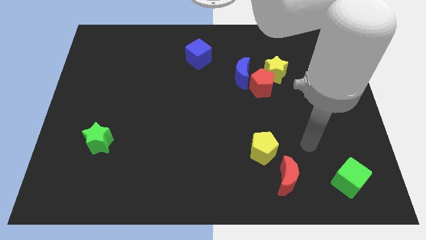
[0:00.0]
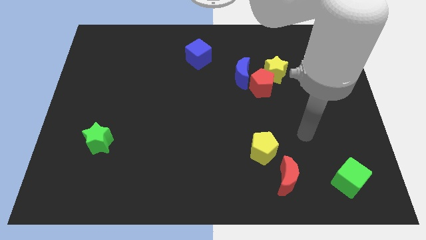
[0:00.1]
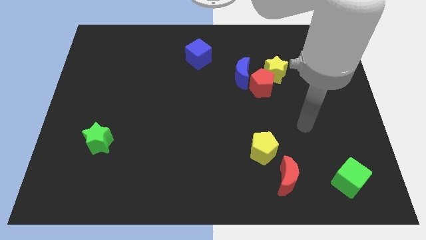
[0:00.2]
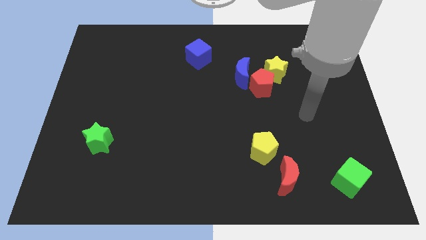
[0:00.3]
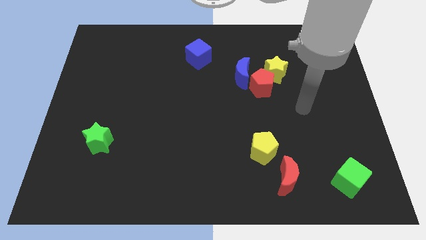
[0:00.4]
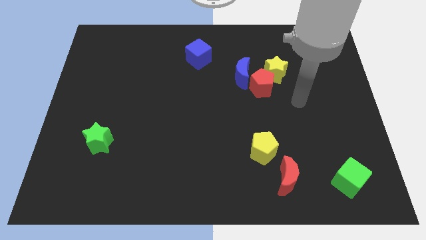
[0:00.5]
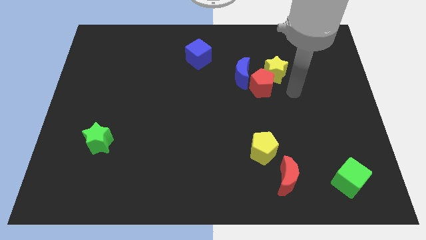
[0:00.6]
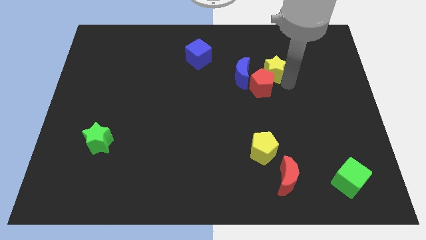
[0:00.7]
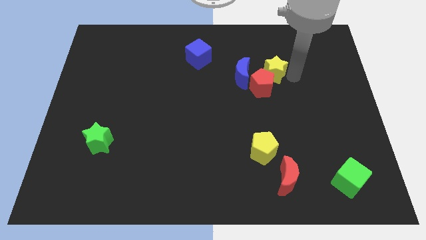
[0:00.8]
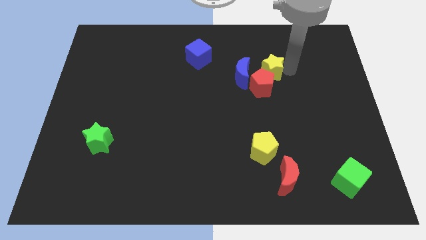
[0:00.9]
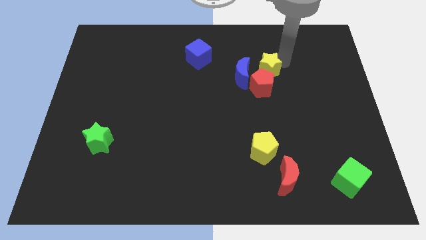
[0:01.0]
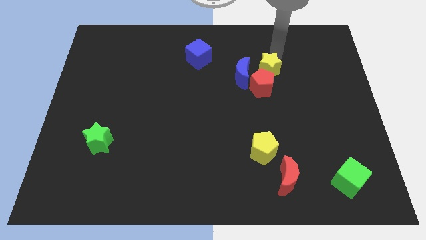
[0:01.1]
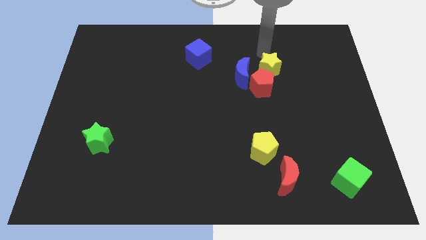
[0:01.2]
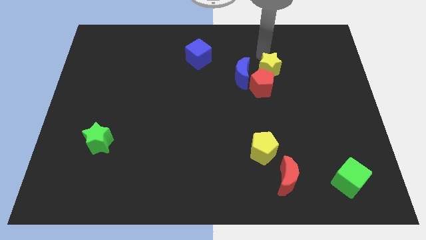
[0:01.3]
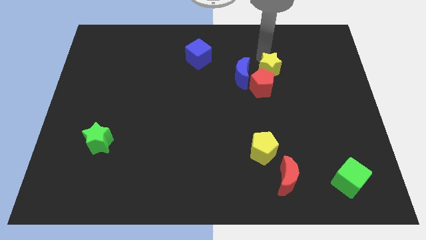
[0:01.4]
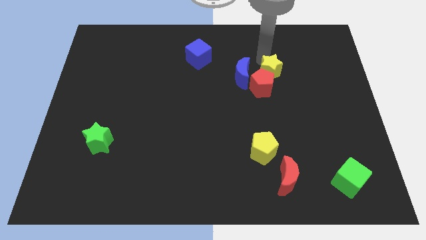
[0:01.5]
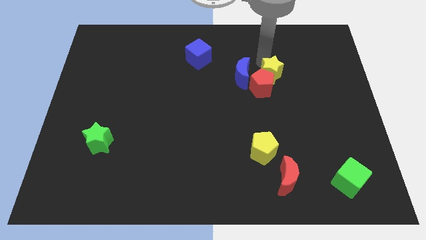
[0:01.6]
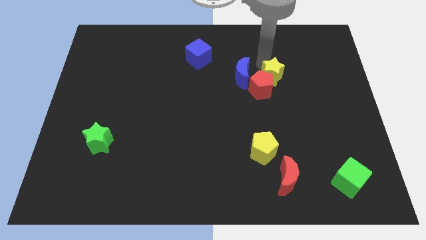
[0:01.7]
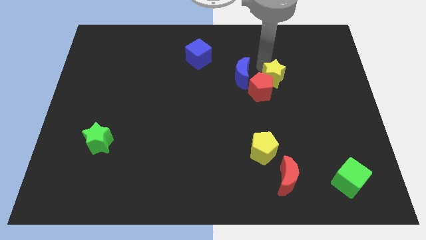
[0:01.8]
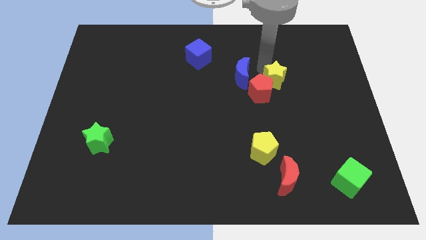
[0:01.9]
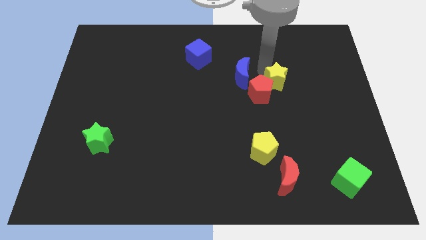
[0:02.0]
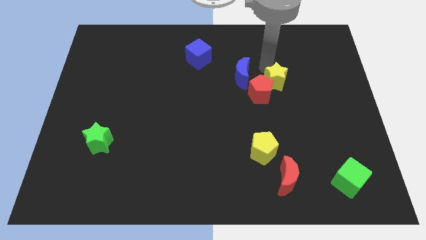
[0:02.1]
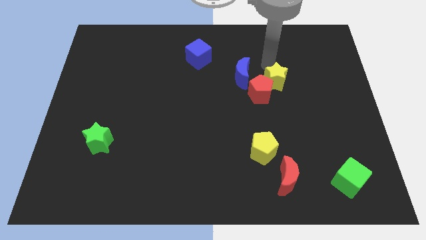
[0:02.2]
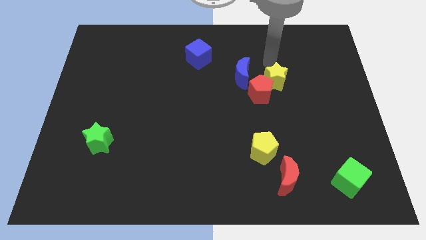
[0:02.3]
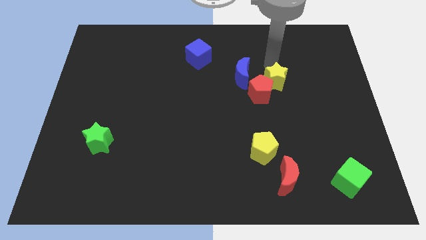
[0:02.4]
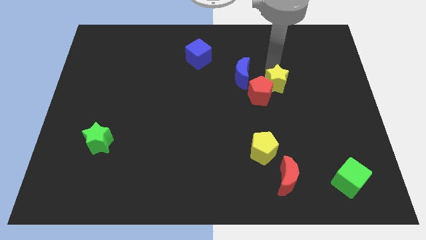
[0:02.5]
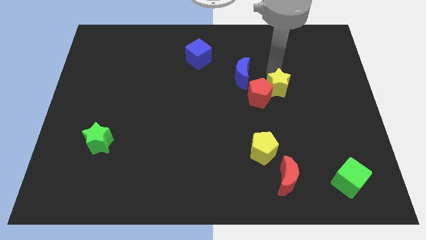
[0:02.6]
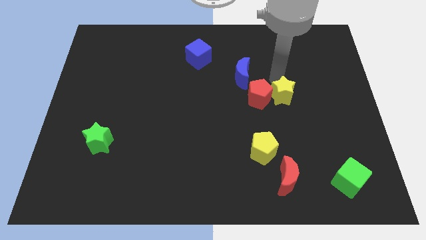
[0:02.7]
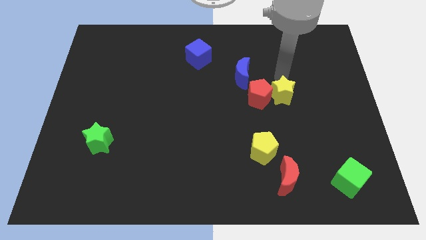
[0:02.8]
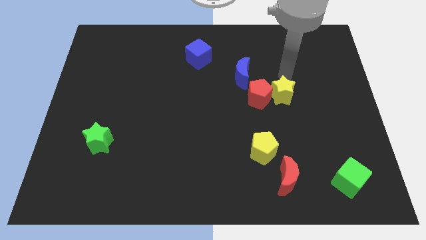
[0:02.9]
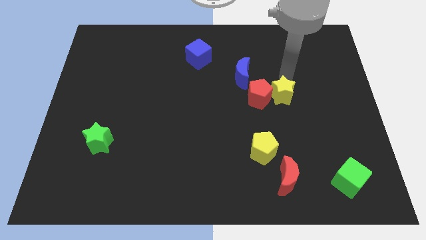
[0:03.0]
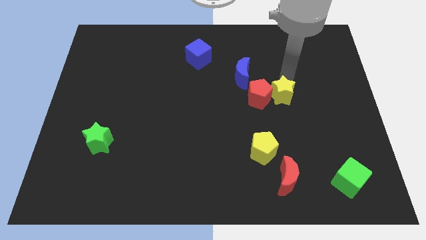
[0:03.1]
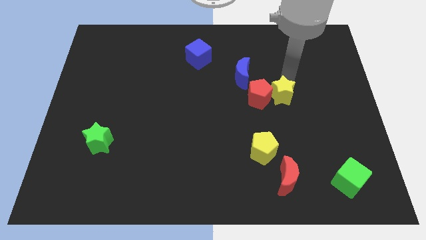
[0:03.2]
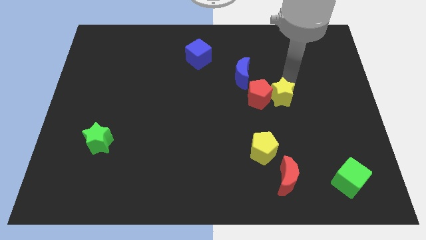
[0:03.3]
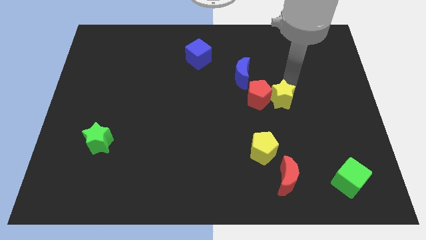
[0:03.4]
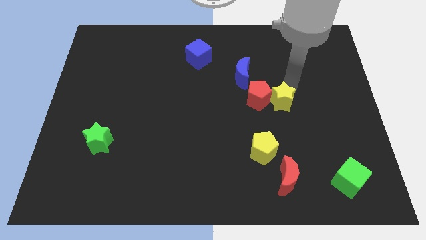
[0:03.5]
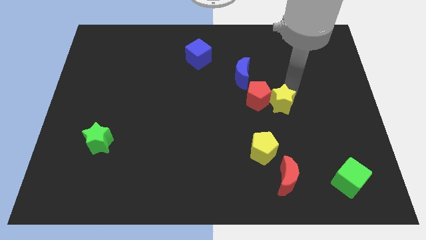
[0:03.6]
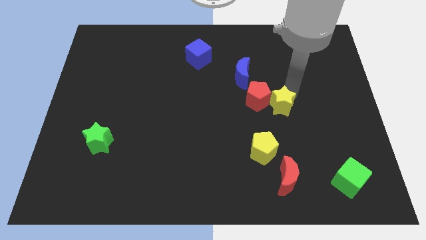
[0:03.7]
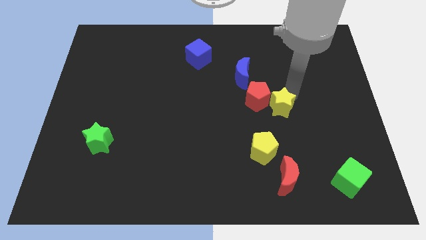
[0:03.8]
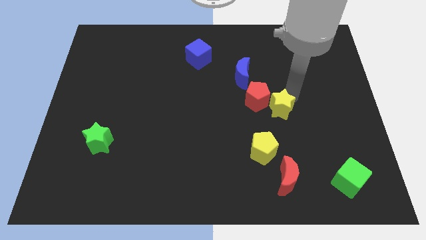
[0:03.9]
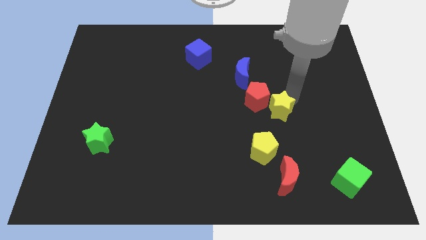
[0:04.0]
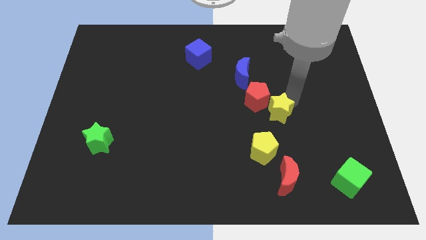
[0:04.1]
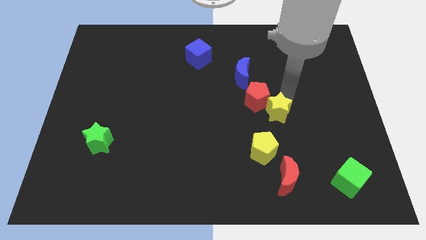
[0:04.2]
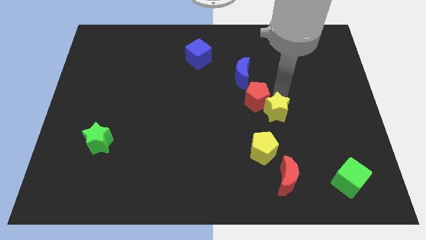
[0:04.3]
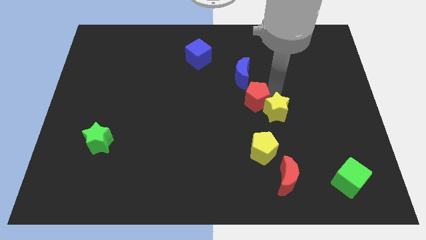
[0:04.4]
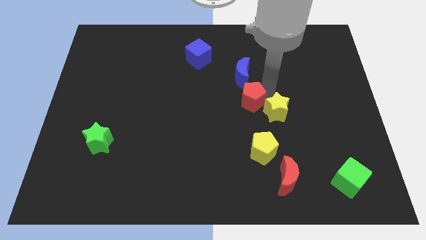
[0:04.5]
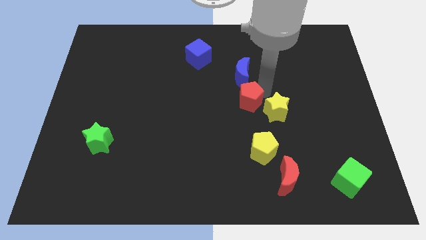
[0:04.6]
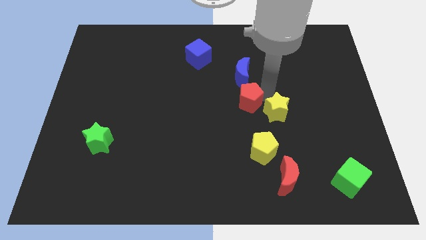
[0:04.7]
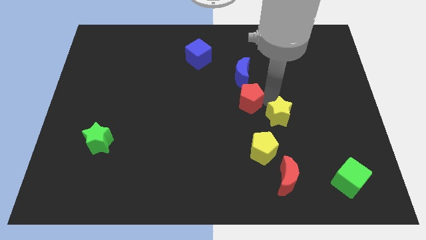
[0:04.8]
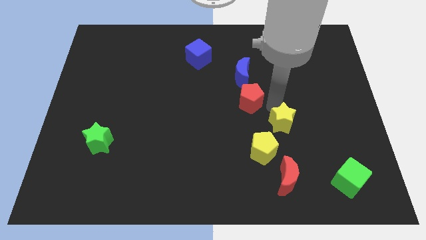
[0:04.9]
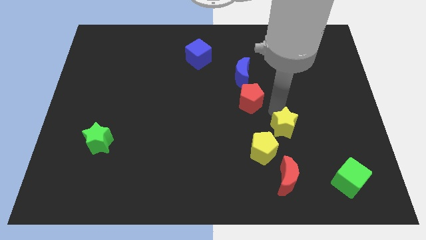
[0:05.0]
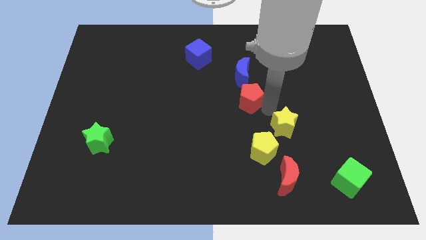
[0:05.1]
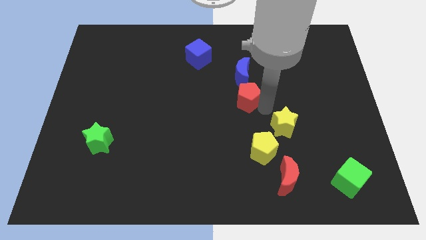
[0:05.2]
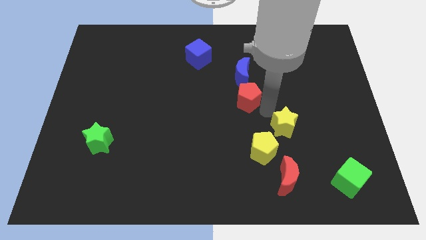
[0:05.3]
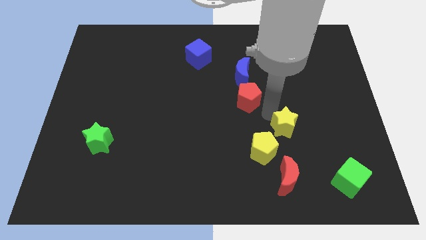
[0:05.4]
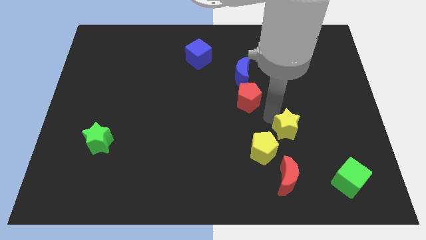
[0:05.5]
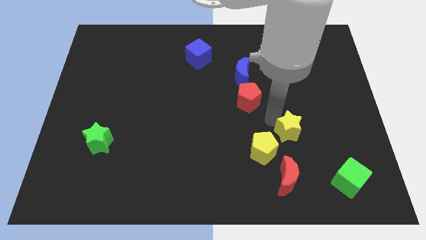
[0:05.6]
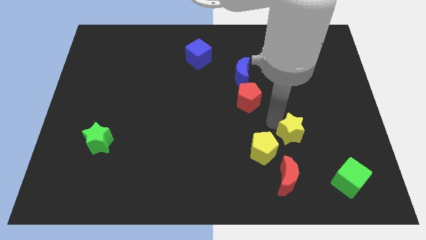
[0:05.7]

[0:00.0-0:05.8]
move the yellow star just right of the yellow pentagon

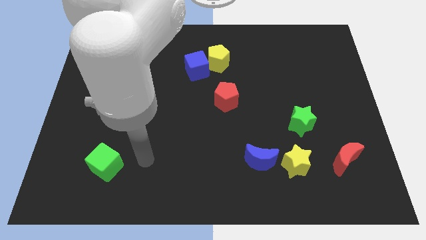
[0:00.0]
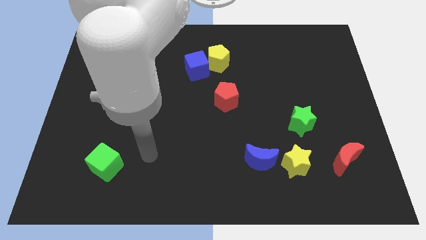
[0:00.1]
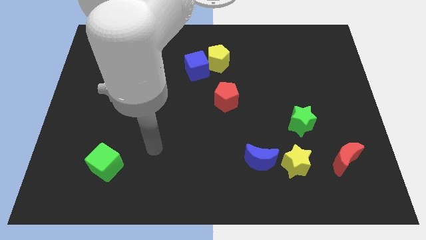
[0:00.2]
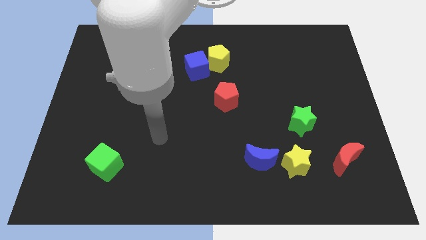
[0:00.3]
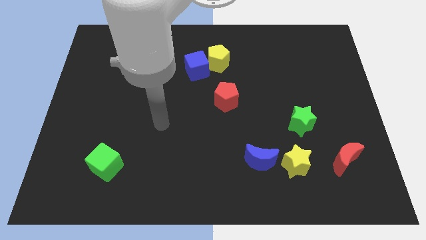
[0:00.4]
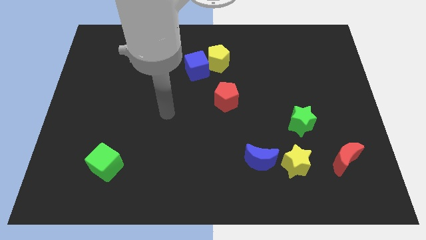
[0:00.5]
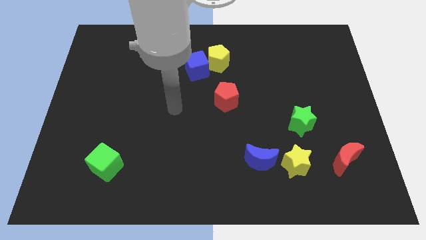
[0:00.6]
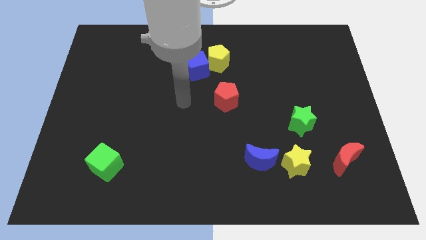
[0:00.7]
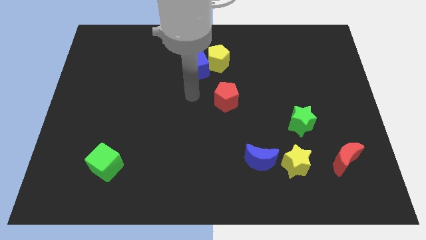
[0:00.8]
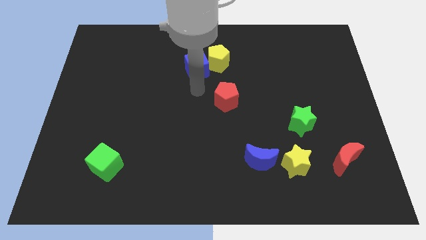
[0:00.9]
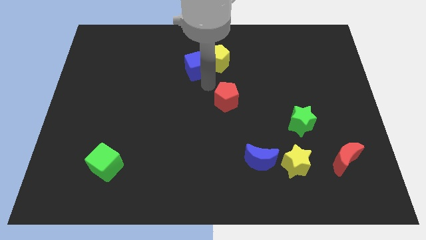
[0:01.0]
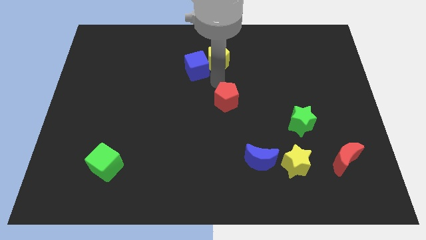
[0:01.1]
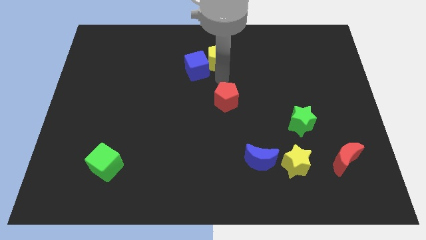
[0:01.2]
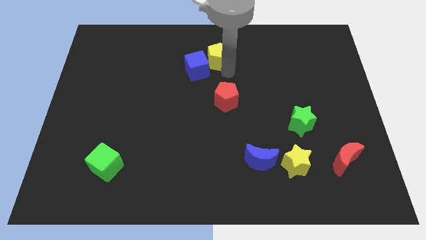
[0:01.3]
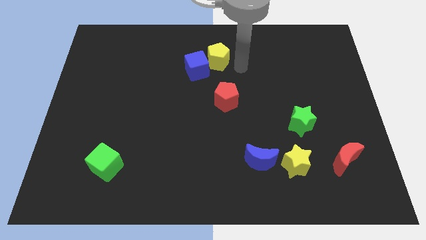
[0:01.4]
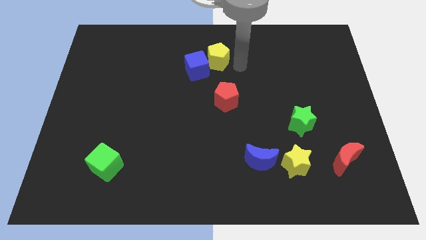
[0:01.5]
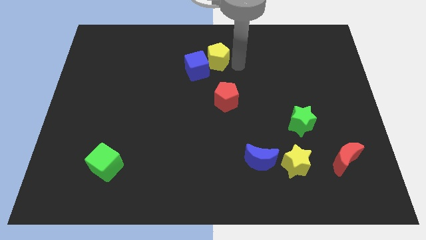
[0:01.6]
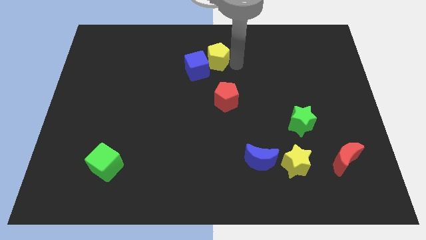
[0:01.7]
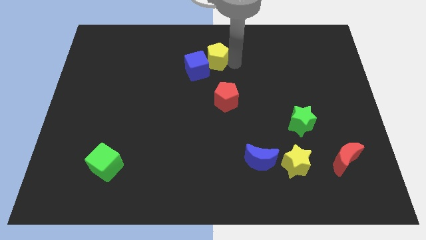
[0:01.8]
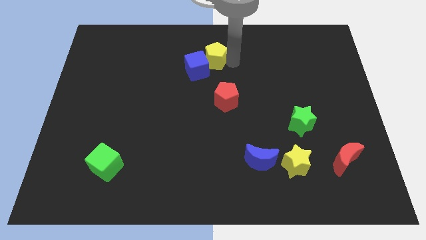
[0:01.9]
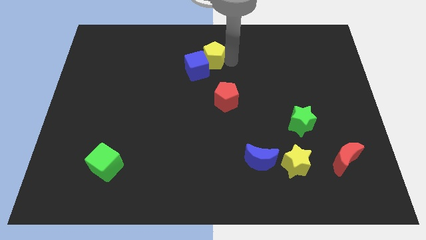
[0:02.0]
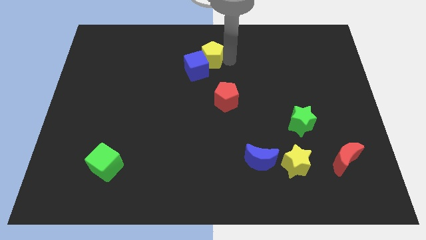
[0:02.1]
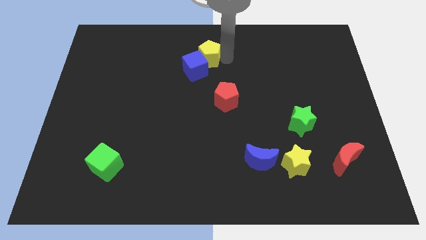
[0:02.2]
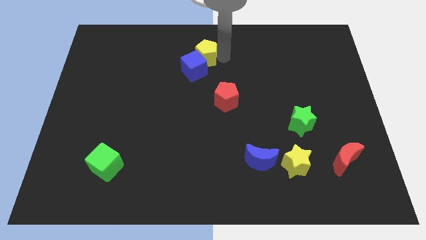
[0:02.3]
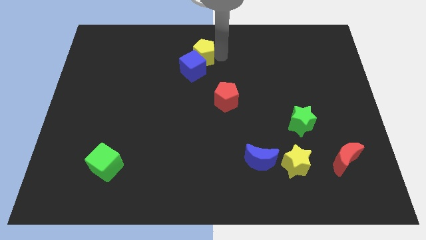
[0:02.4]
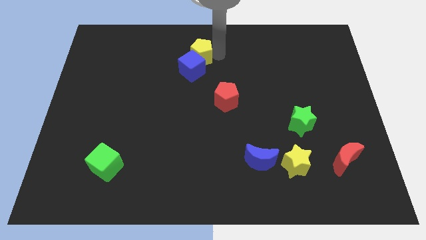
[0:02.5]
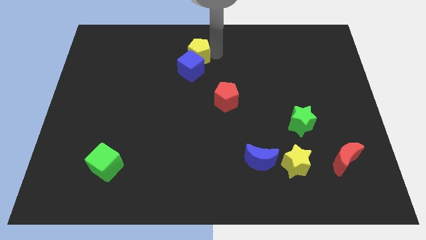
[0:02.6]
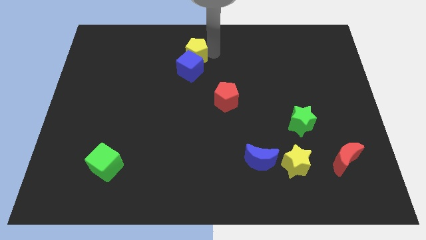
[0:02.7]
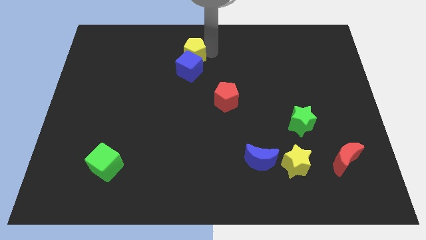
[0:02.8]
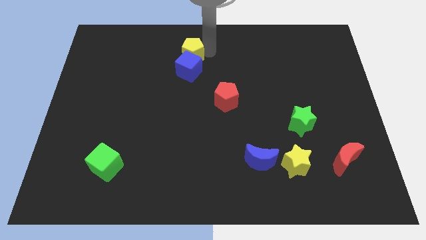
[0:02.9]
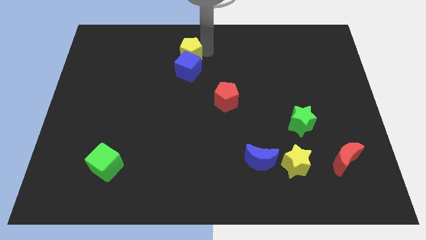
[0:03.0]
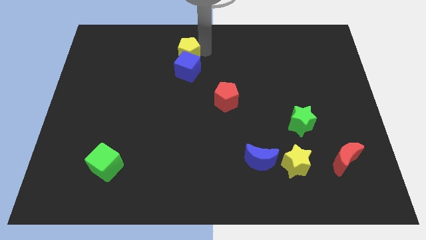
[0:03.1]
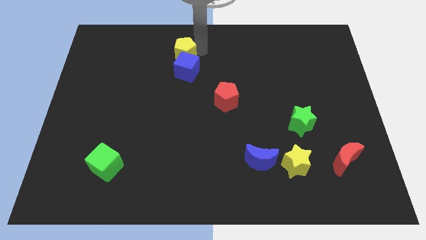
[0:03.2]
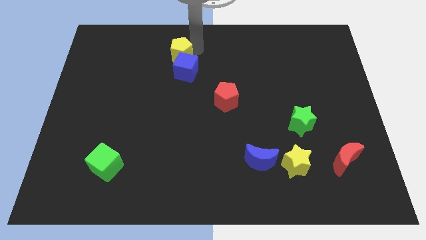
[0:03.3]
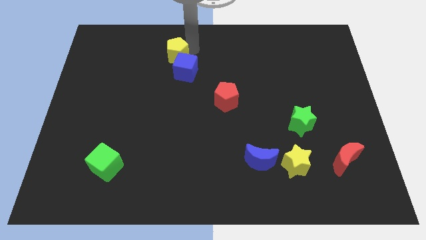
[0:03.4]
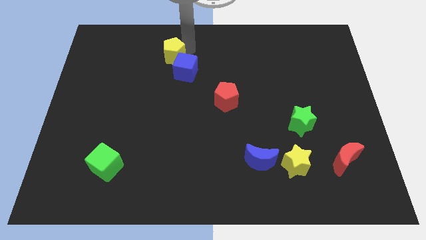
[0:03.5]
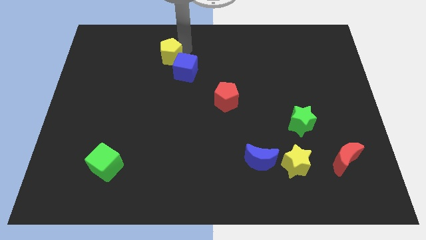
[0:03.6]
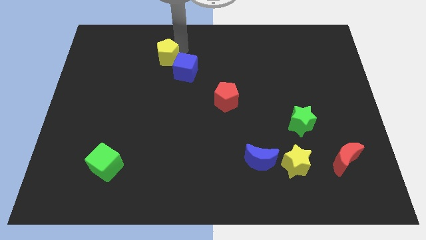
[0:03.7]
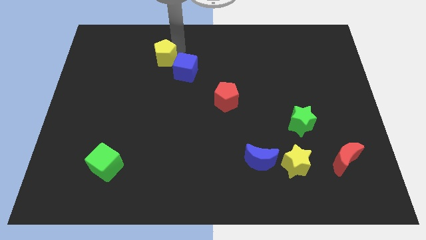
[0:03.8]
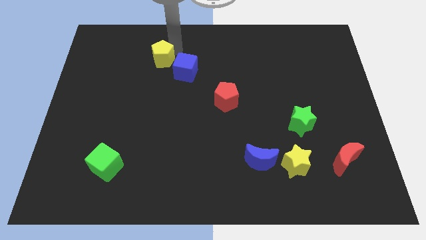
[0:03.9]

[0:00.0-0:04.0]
slide the yellow pentagon to the left of the blue cube
